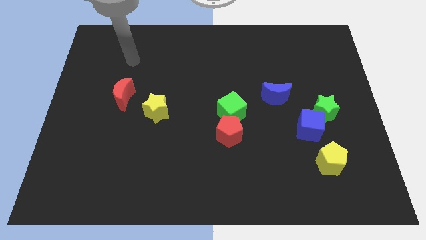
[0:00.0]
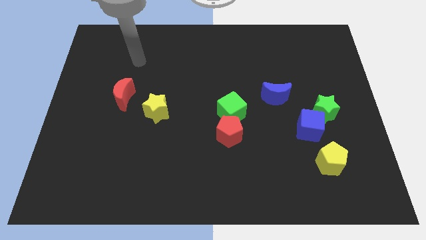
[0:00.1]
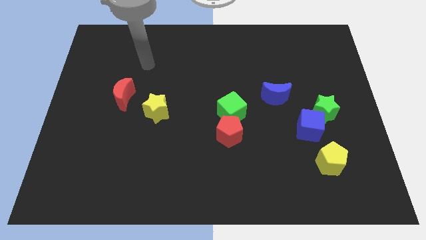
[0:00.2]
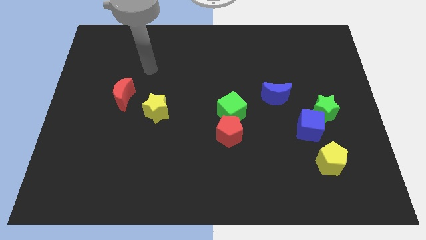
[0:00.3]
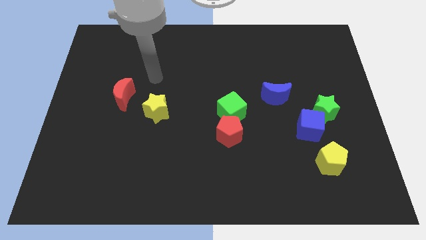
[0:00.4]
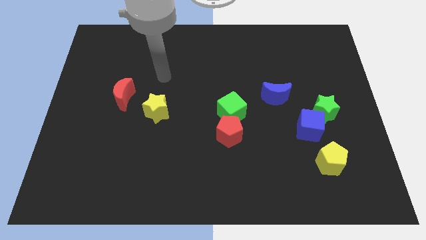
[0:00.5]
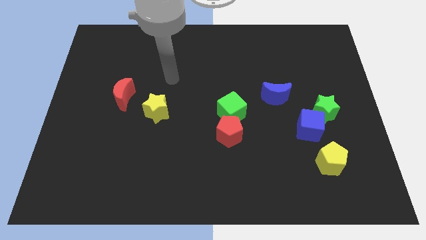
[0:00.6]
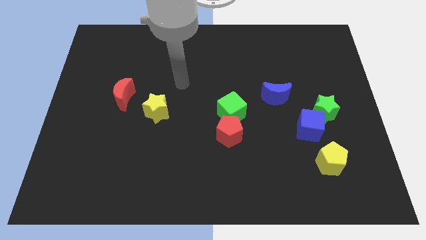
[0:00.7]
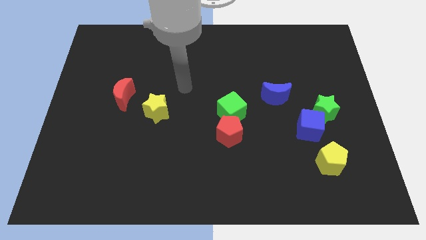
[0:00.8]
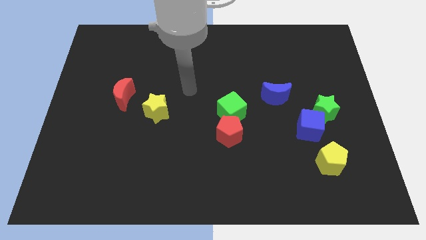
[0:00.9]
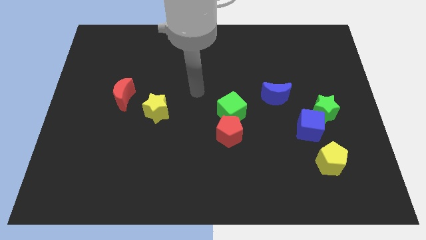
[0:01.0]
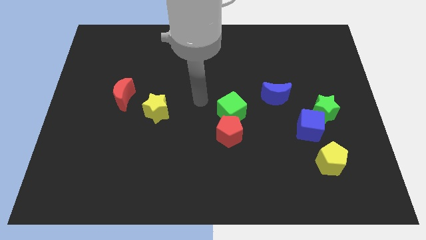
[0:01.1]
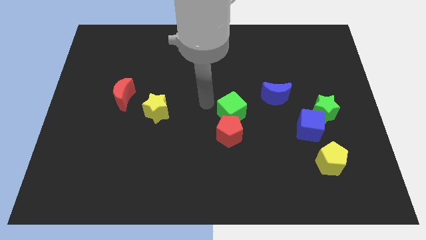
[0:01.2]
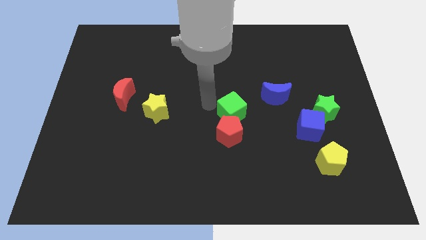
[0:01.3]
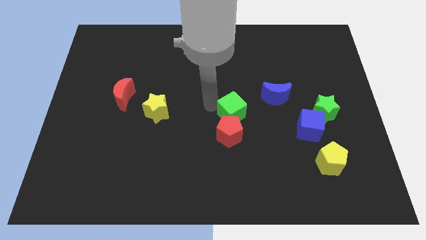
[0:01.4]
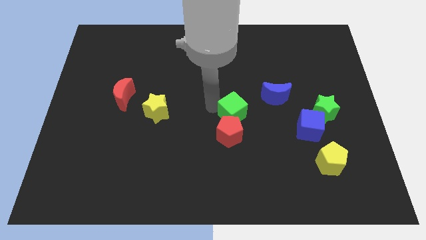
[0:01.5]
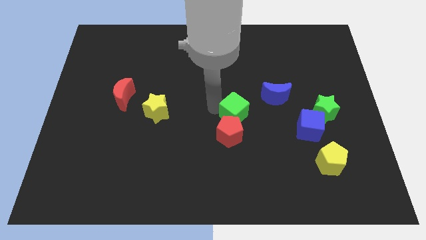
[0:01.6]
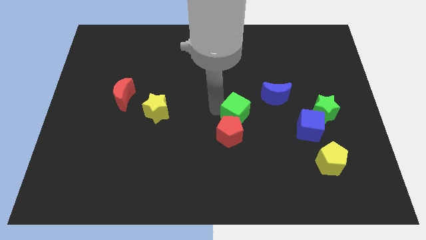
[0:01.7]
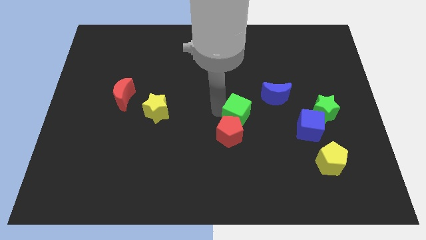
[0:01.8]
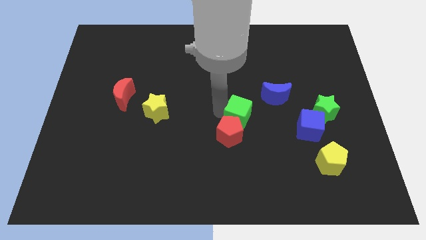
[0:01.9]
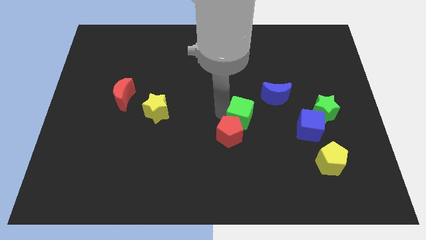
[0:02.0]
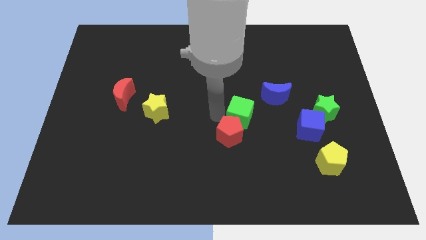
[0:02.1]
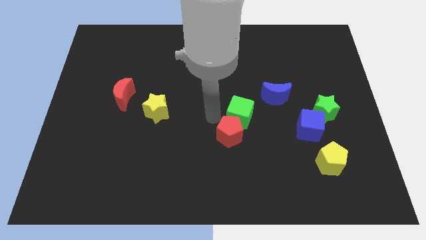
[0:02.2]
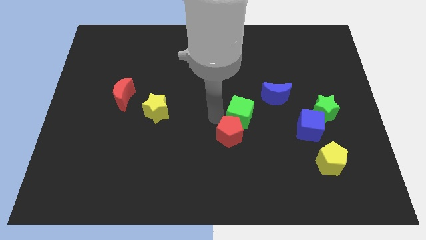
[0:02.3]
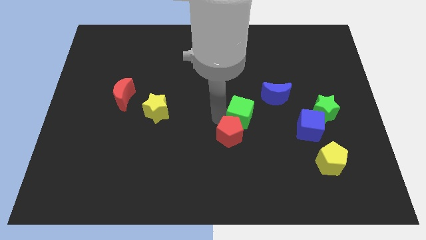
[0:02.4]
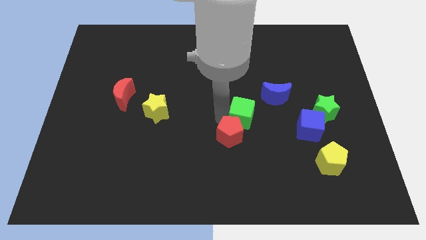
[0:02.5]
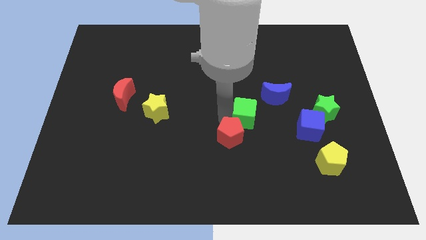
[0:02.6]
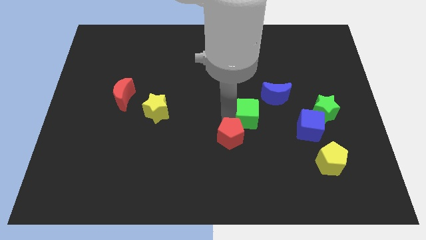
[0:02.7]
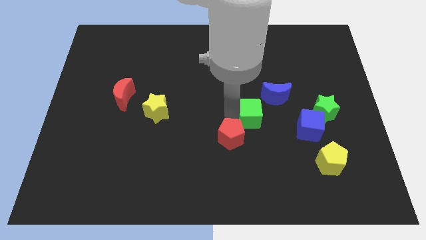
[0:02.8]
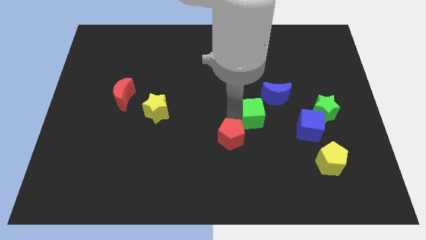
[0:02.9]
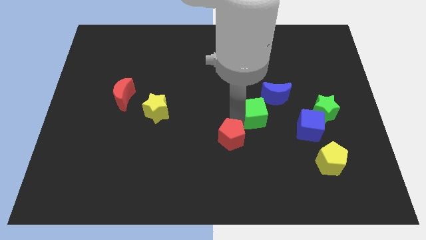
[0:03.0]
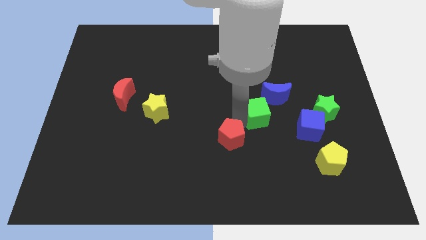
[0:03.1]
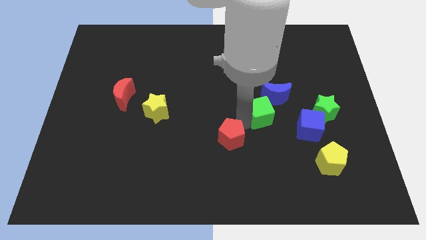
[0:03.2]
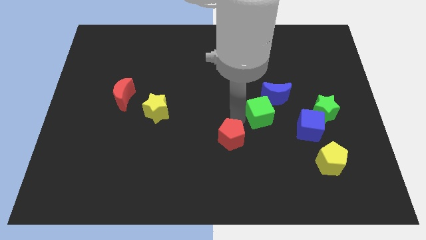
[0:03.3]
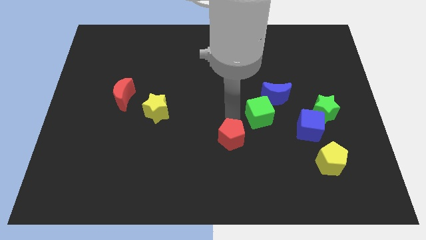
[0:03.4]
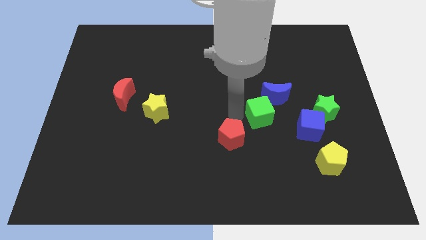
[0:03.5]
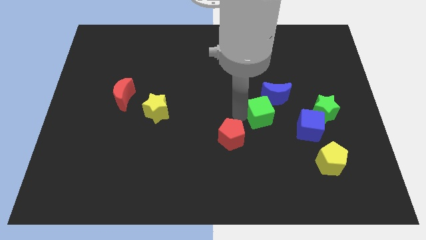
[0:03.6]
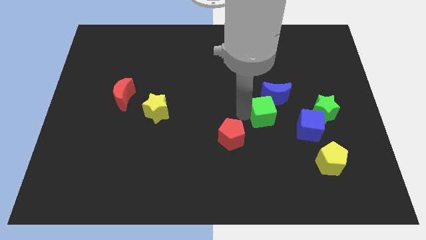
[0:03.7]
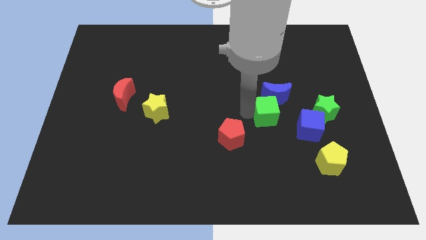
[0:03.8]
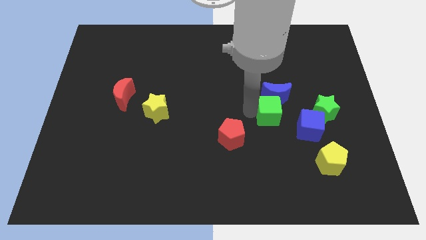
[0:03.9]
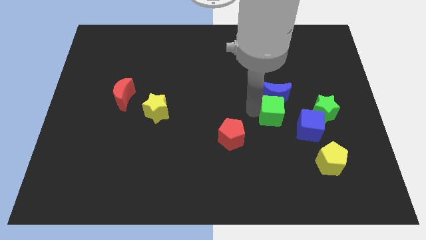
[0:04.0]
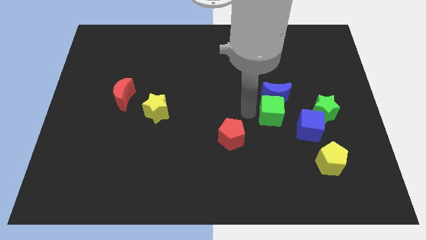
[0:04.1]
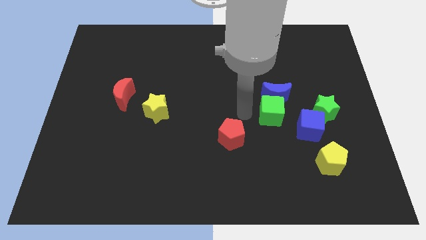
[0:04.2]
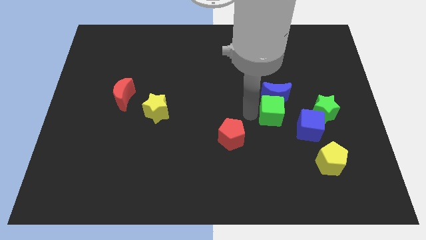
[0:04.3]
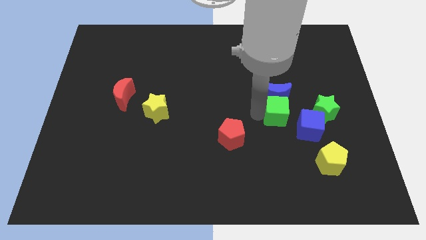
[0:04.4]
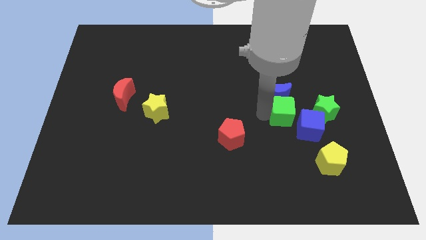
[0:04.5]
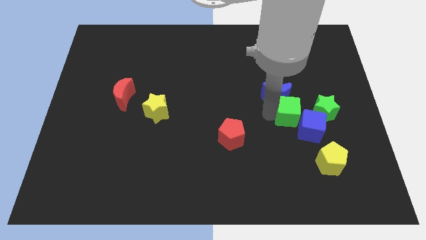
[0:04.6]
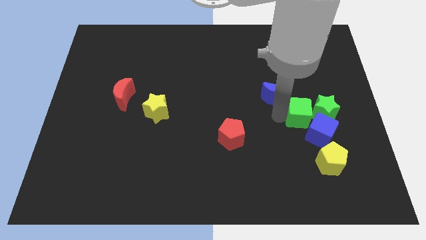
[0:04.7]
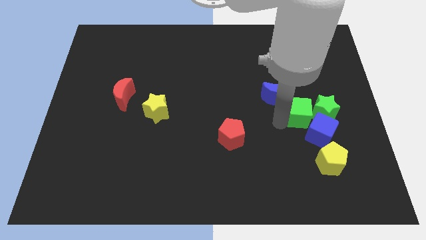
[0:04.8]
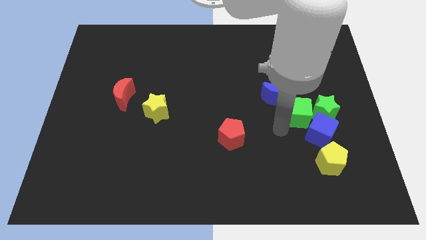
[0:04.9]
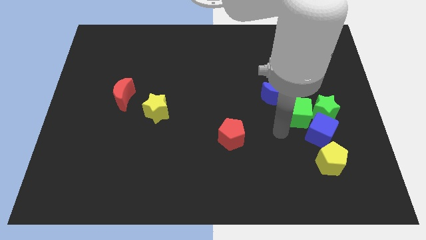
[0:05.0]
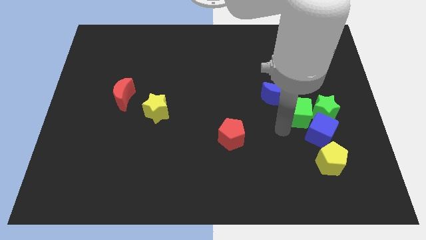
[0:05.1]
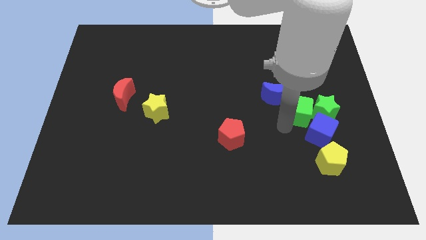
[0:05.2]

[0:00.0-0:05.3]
move the green cube right of the blue moon

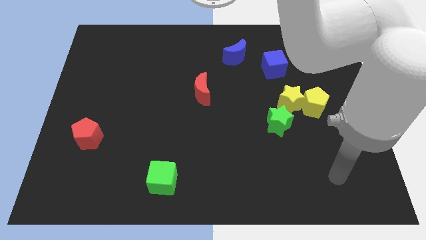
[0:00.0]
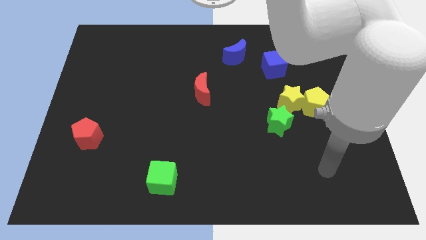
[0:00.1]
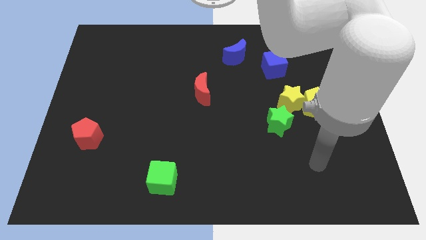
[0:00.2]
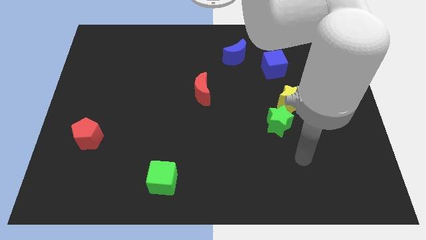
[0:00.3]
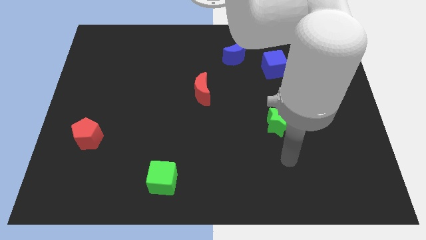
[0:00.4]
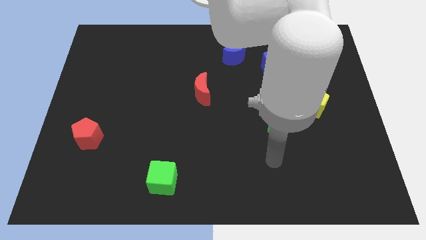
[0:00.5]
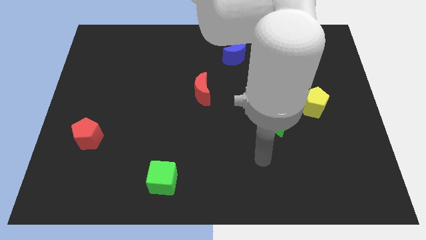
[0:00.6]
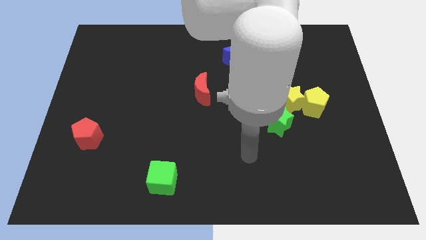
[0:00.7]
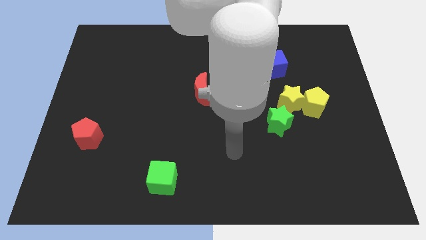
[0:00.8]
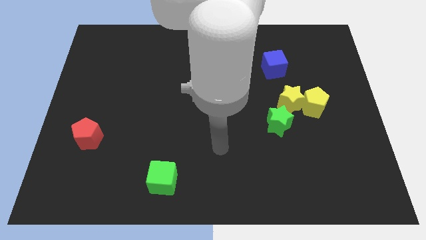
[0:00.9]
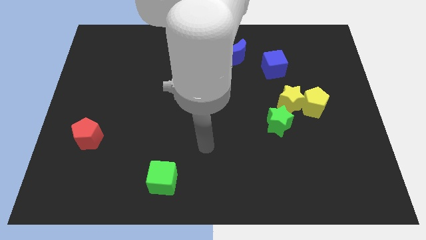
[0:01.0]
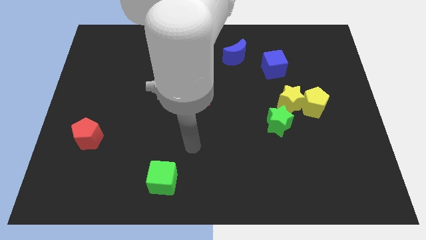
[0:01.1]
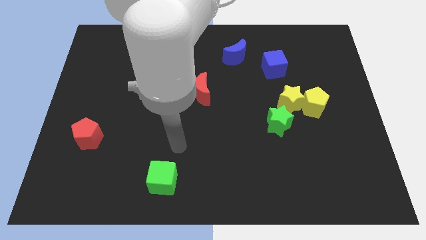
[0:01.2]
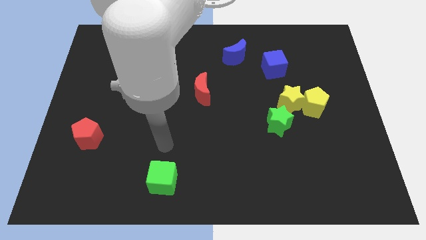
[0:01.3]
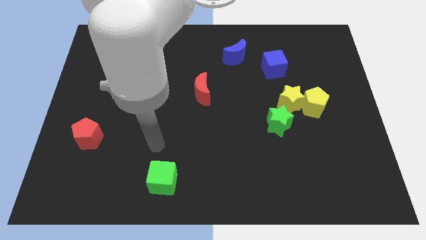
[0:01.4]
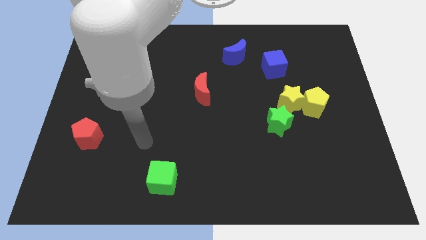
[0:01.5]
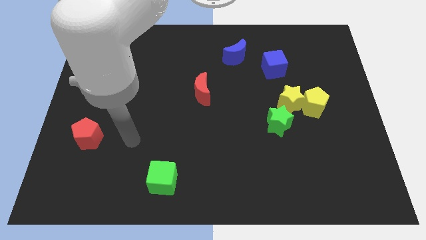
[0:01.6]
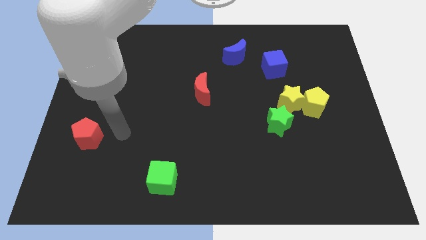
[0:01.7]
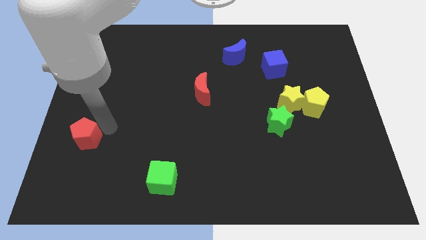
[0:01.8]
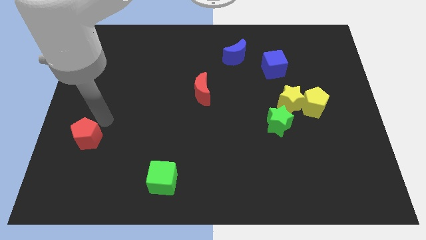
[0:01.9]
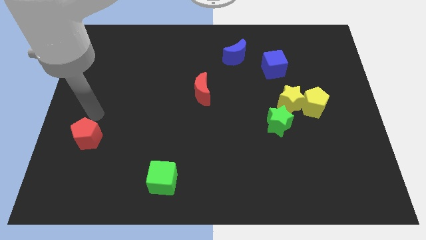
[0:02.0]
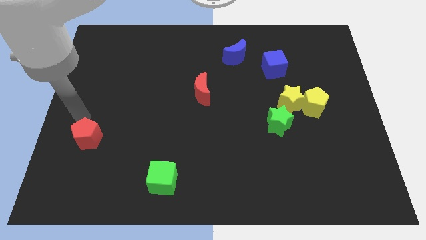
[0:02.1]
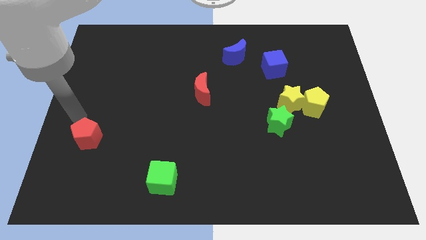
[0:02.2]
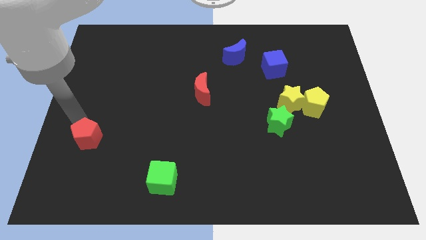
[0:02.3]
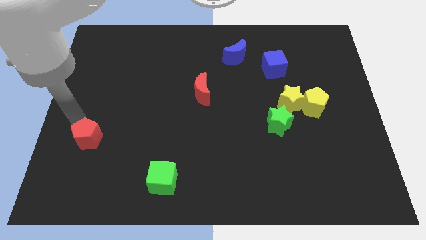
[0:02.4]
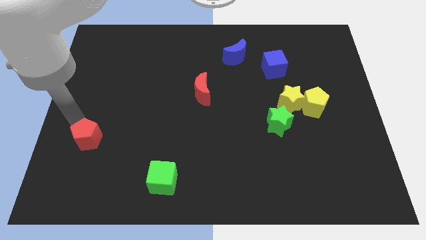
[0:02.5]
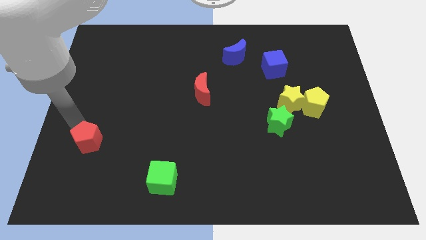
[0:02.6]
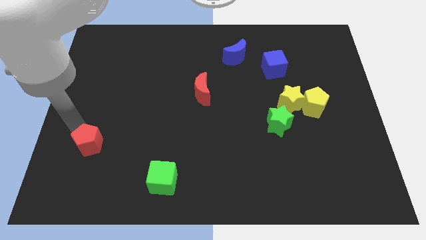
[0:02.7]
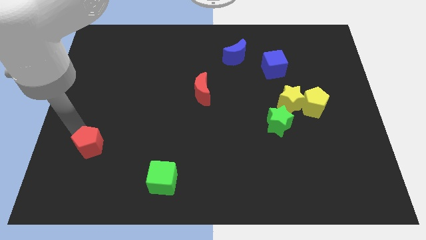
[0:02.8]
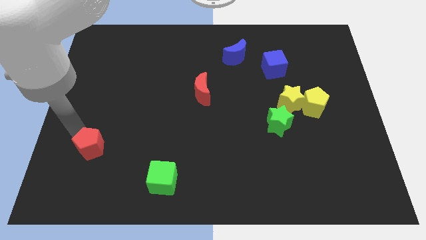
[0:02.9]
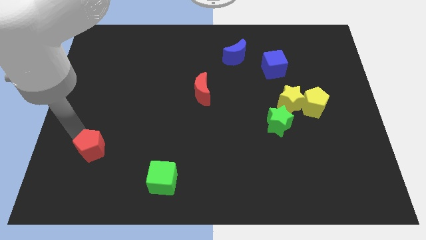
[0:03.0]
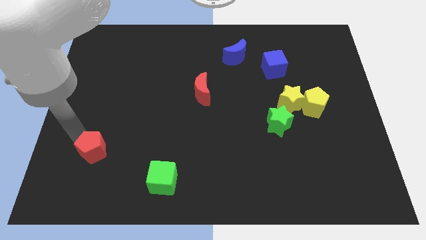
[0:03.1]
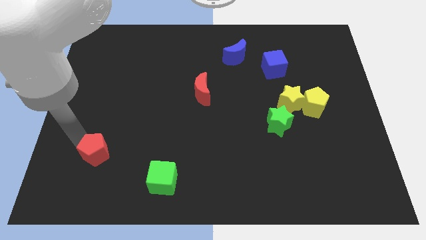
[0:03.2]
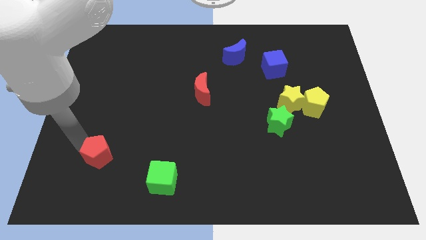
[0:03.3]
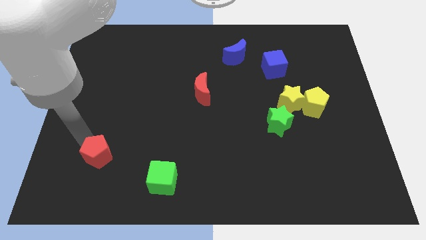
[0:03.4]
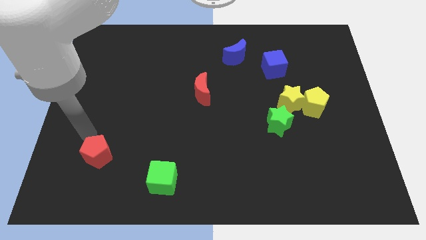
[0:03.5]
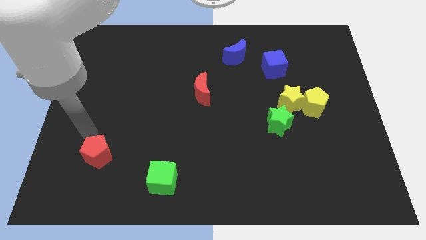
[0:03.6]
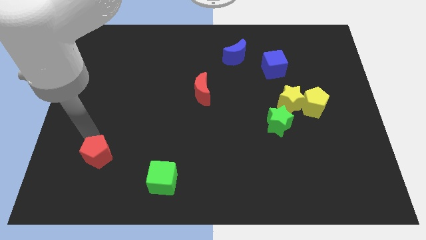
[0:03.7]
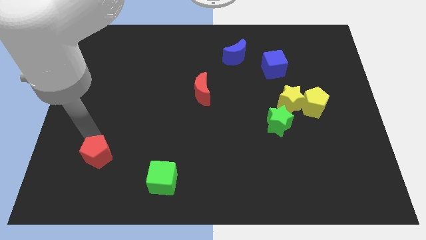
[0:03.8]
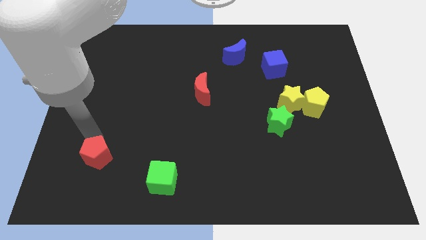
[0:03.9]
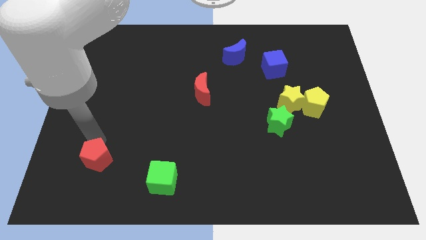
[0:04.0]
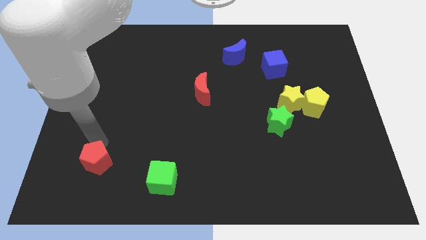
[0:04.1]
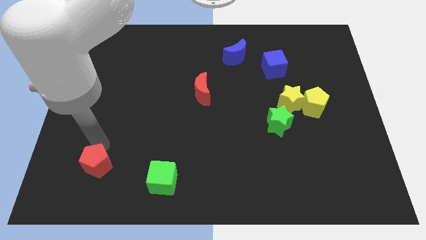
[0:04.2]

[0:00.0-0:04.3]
put the red pentagon just left of the green cube
